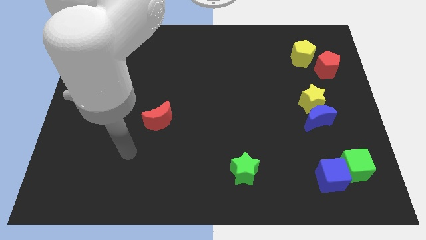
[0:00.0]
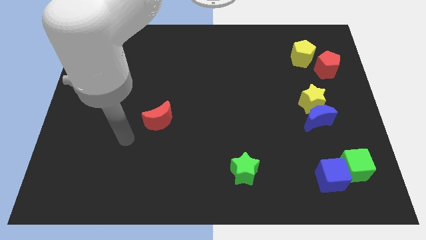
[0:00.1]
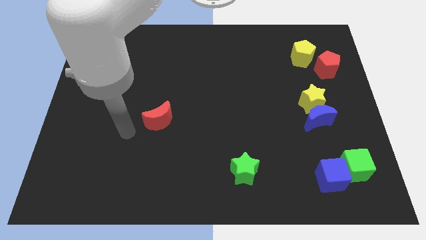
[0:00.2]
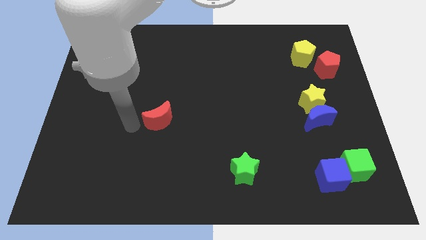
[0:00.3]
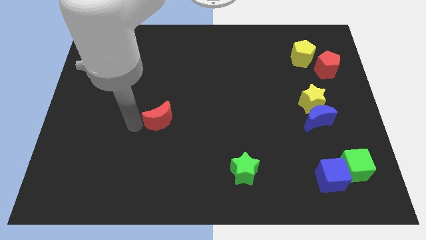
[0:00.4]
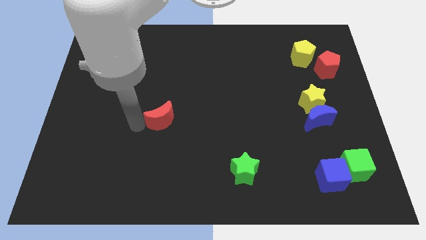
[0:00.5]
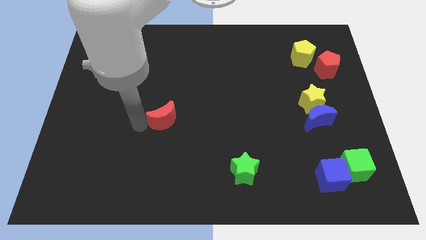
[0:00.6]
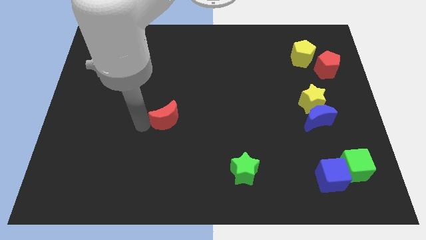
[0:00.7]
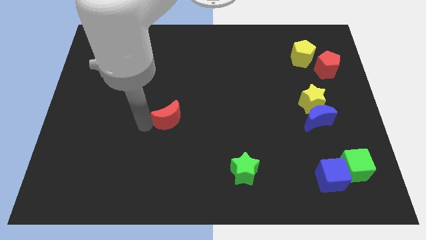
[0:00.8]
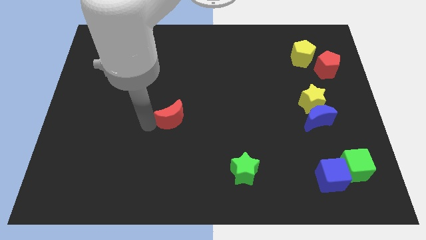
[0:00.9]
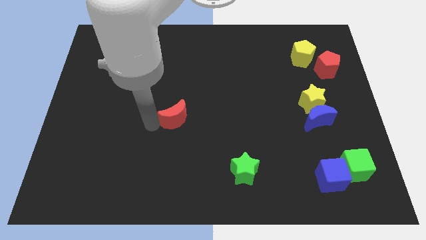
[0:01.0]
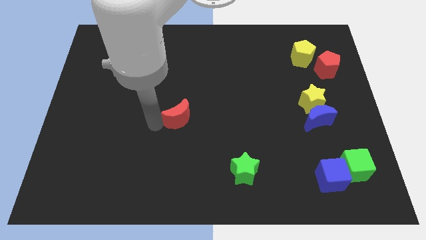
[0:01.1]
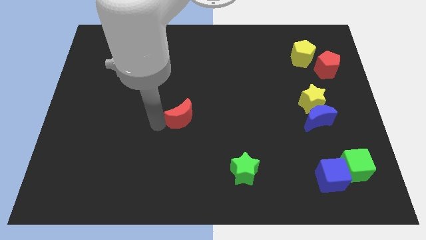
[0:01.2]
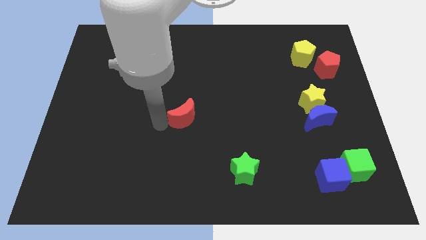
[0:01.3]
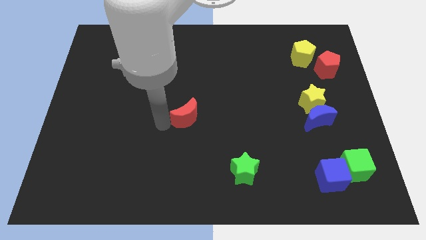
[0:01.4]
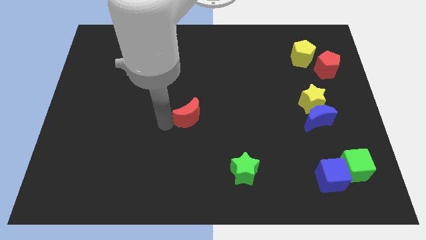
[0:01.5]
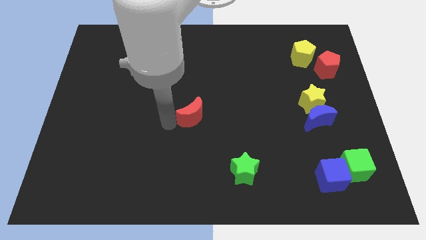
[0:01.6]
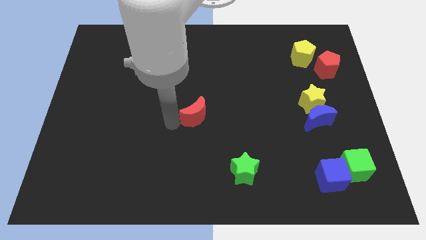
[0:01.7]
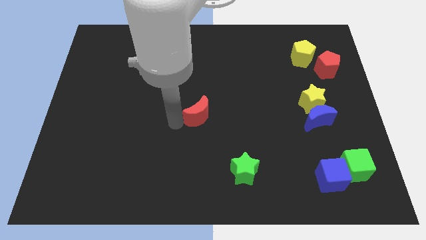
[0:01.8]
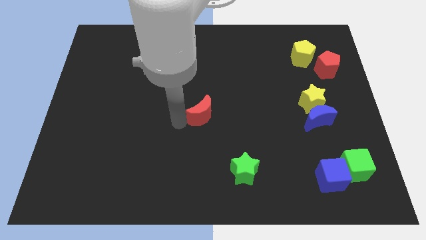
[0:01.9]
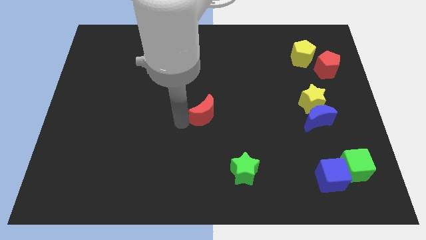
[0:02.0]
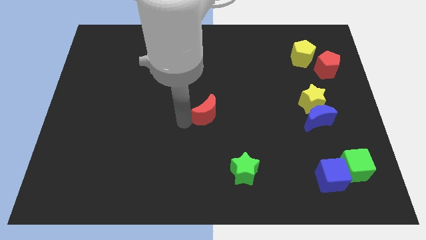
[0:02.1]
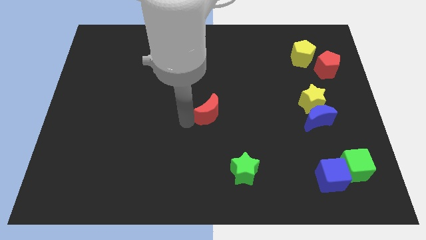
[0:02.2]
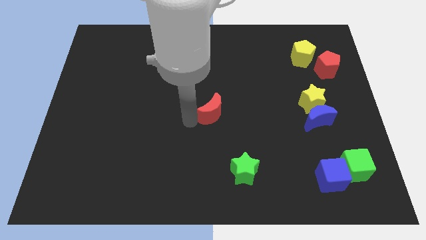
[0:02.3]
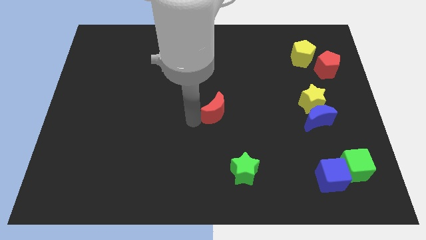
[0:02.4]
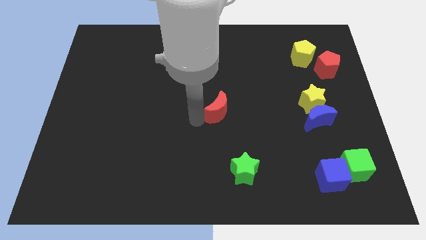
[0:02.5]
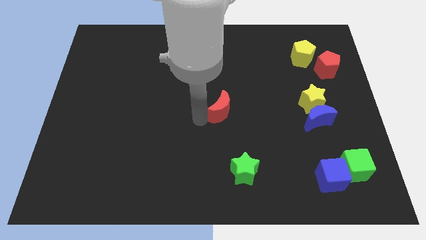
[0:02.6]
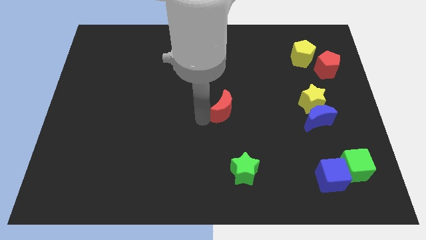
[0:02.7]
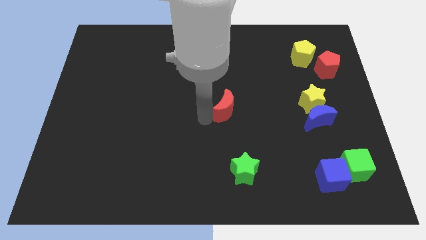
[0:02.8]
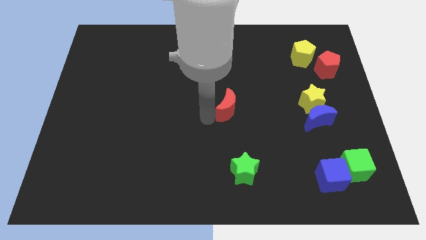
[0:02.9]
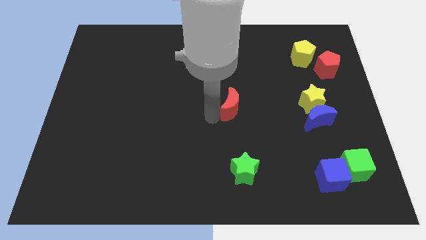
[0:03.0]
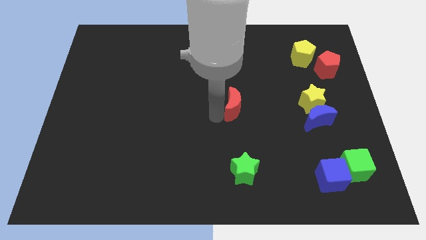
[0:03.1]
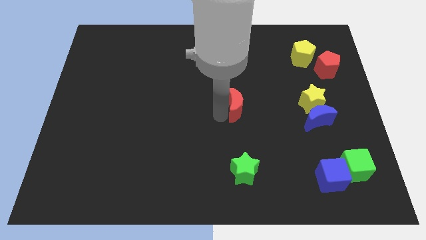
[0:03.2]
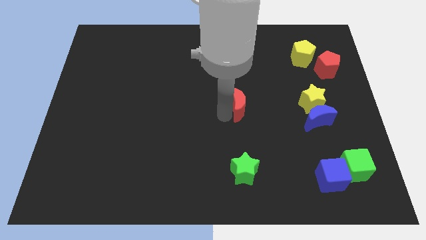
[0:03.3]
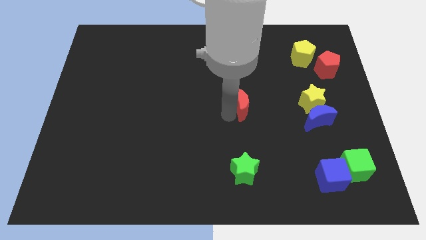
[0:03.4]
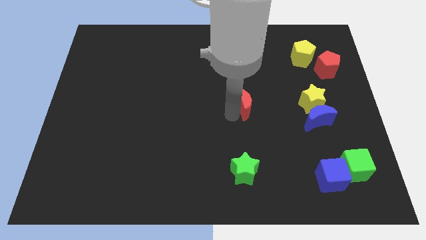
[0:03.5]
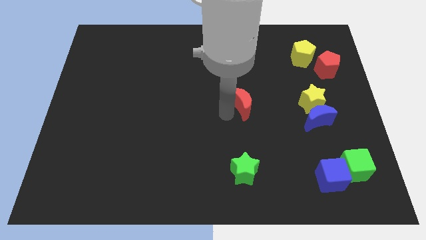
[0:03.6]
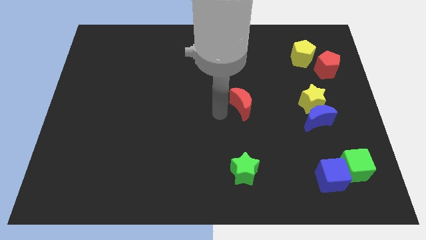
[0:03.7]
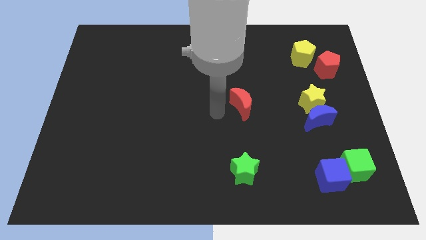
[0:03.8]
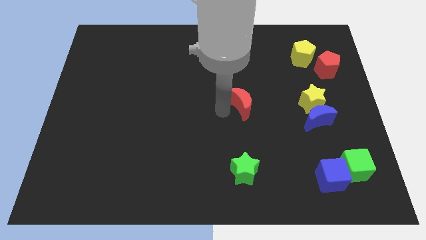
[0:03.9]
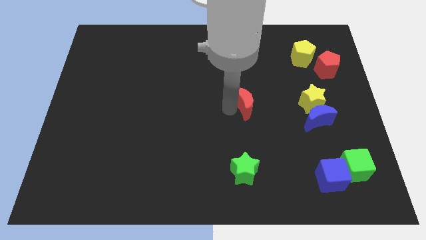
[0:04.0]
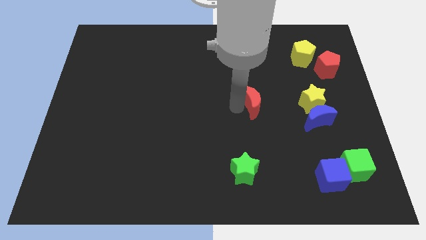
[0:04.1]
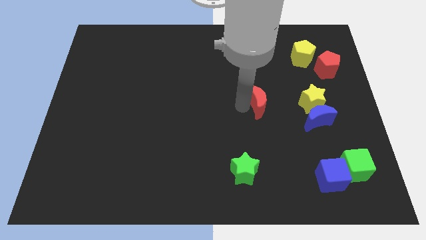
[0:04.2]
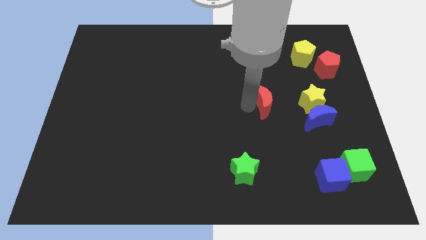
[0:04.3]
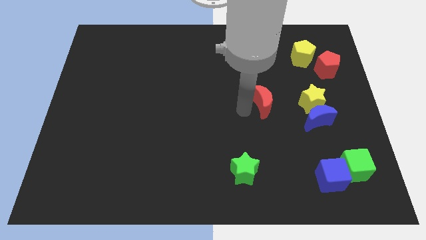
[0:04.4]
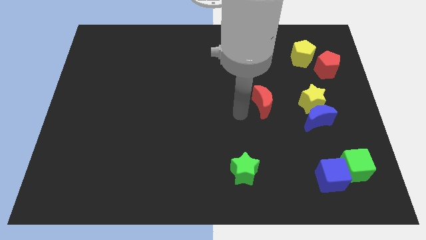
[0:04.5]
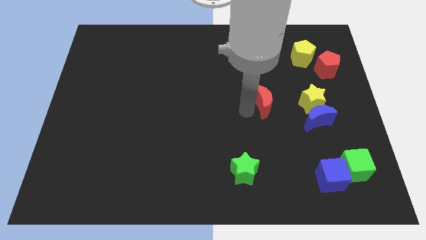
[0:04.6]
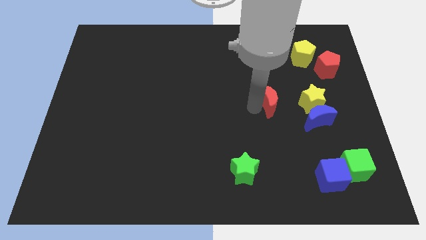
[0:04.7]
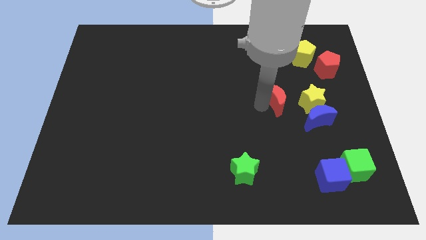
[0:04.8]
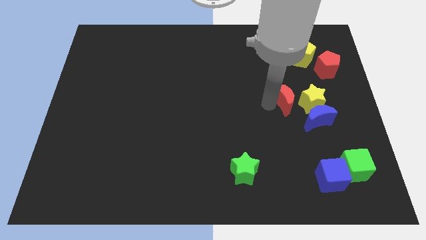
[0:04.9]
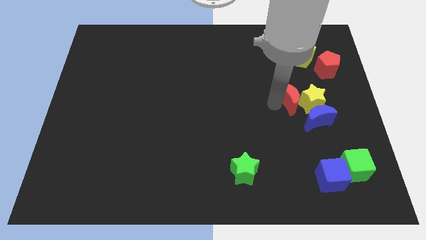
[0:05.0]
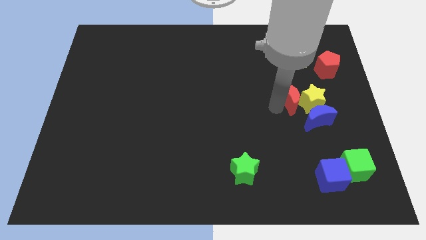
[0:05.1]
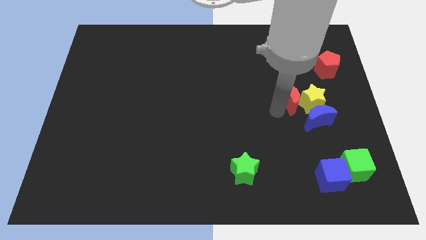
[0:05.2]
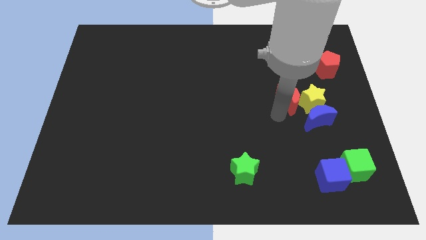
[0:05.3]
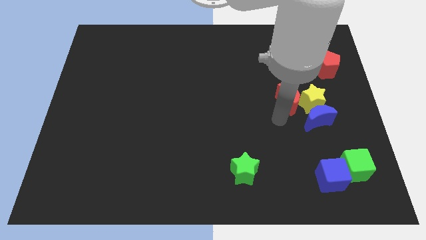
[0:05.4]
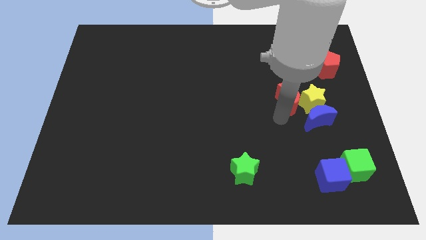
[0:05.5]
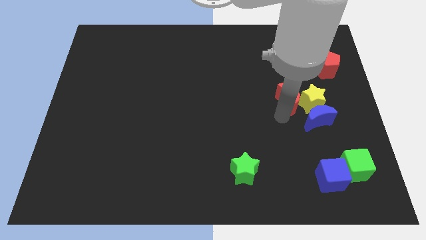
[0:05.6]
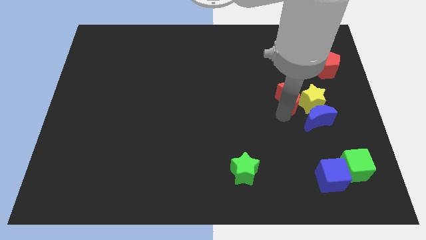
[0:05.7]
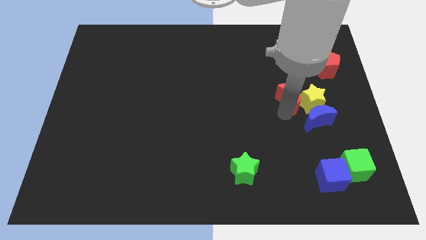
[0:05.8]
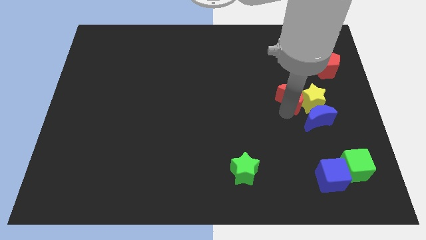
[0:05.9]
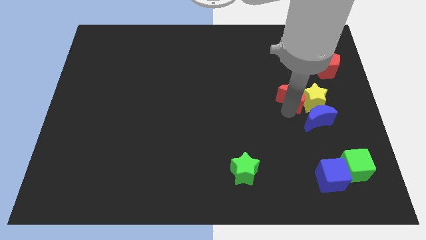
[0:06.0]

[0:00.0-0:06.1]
slide the red moon to the top side of the blue moon

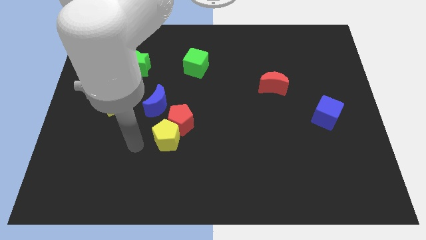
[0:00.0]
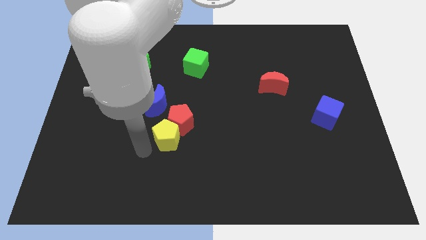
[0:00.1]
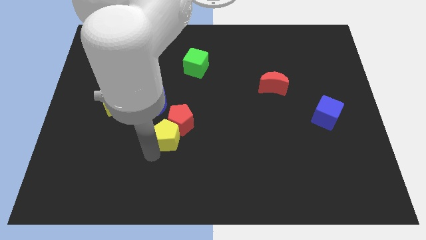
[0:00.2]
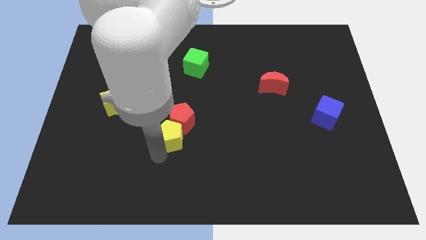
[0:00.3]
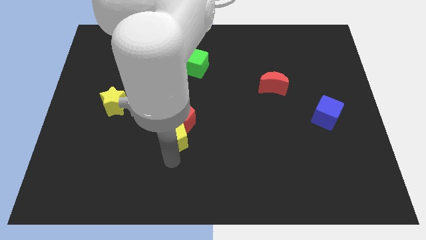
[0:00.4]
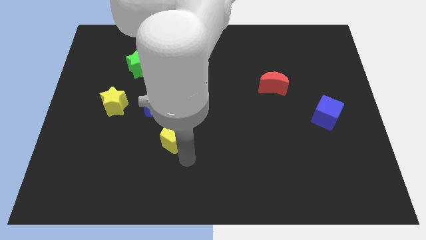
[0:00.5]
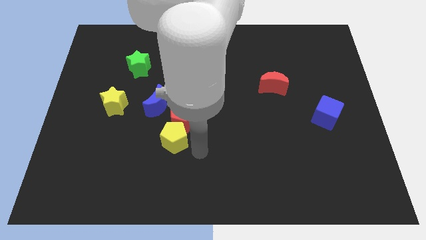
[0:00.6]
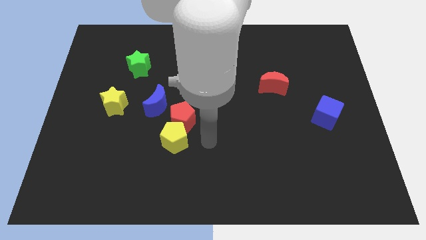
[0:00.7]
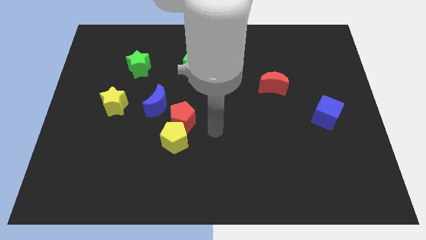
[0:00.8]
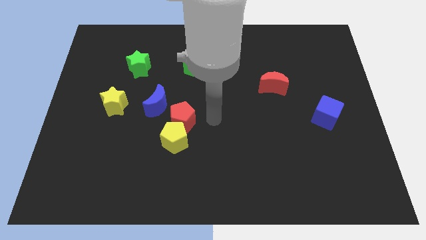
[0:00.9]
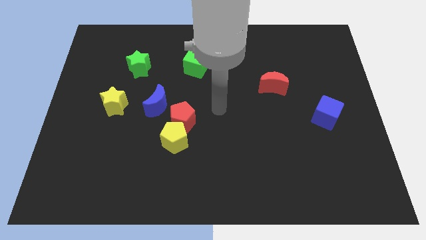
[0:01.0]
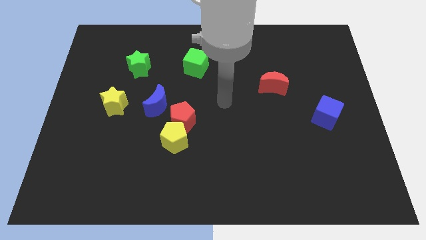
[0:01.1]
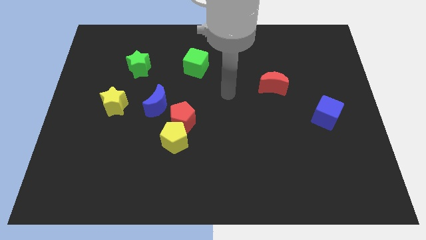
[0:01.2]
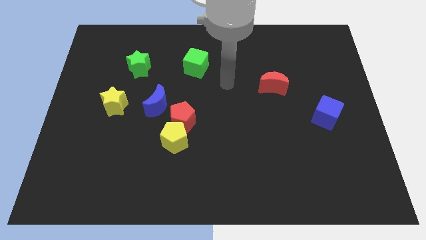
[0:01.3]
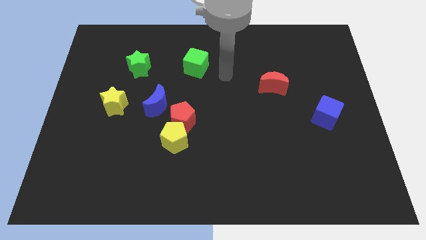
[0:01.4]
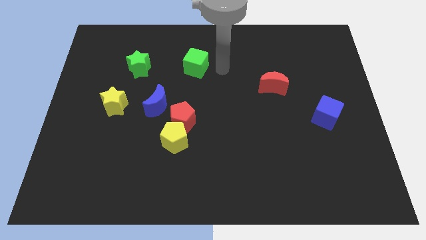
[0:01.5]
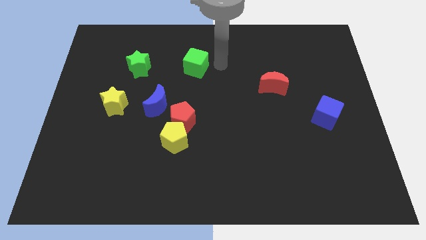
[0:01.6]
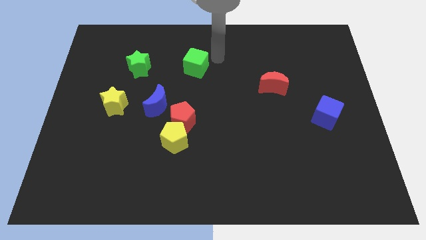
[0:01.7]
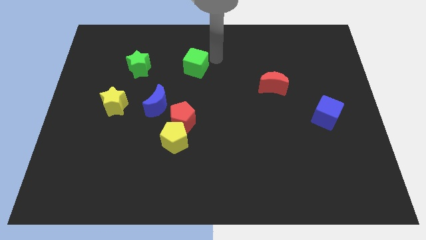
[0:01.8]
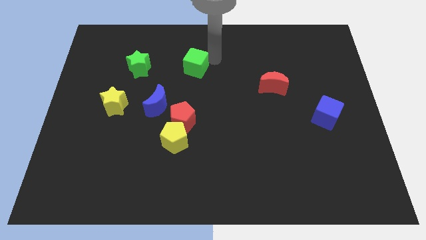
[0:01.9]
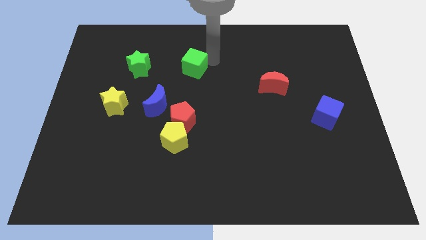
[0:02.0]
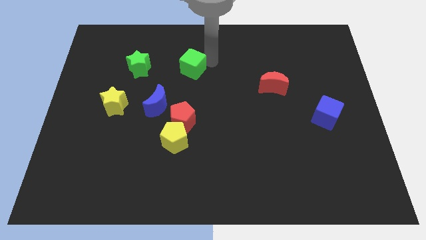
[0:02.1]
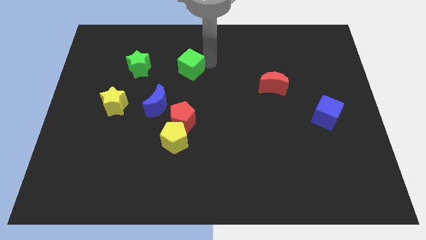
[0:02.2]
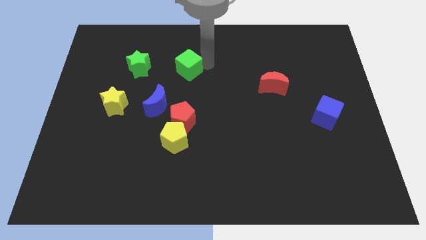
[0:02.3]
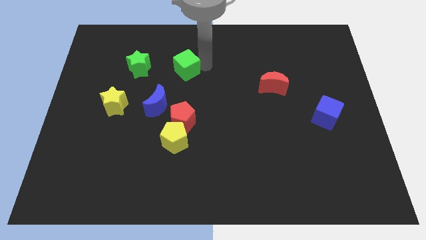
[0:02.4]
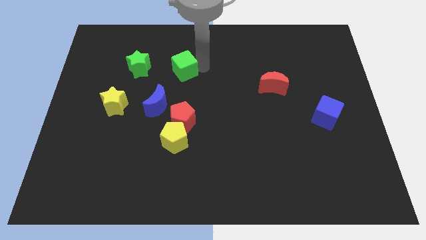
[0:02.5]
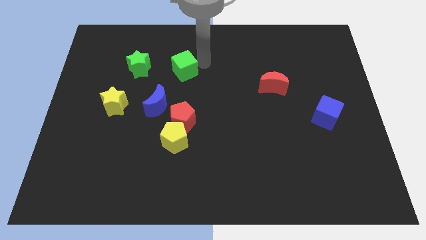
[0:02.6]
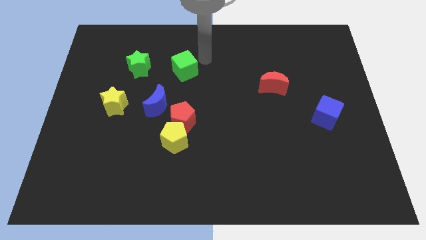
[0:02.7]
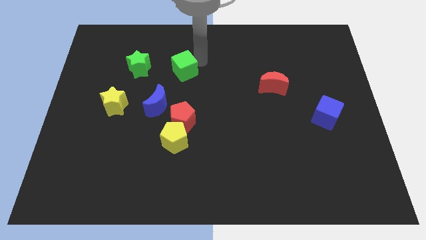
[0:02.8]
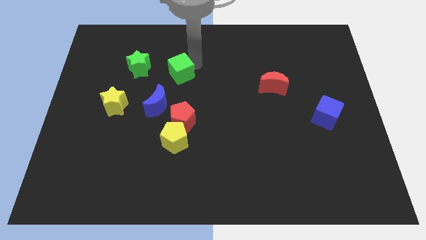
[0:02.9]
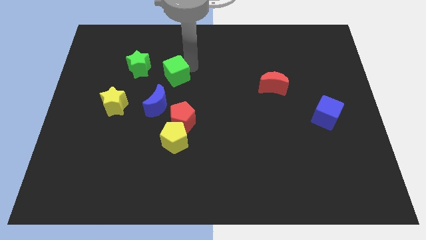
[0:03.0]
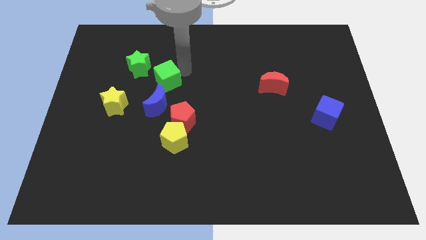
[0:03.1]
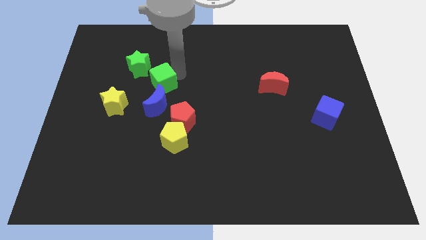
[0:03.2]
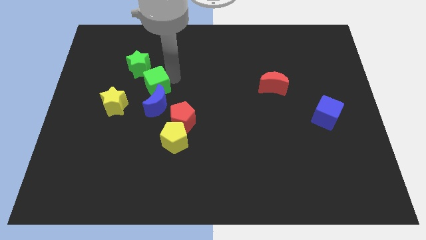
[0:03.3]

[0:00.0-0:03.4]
slide the green cube to the top left of the blue moon
